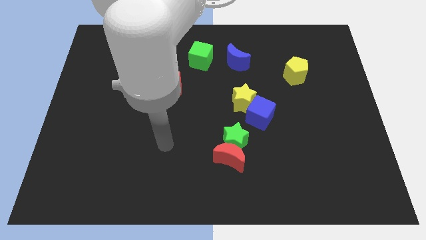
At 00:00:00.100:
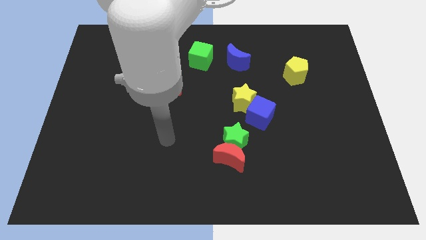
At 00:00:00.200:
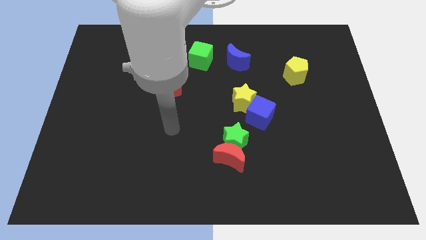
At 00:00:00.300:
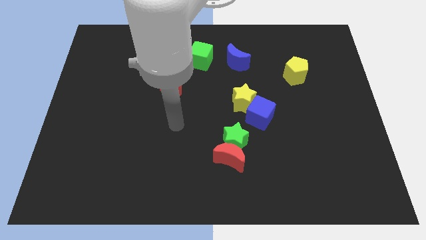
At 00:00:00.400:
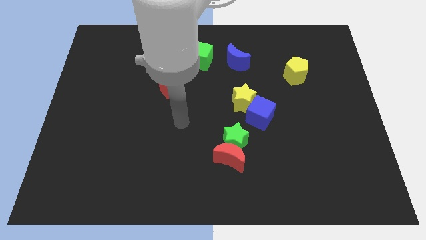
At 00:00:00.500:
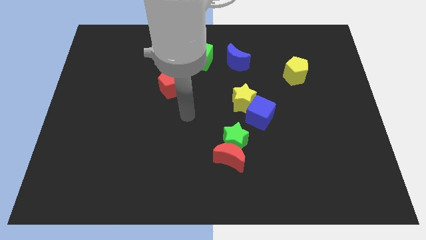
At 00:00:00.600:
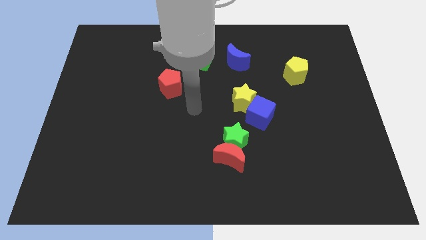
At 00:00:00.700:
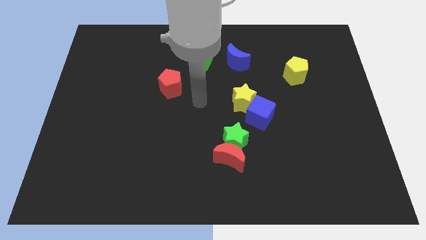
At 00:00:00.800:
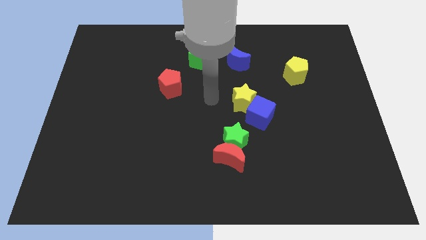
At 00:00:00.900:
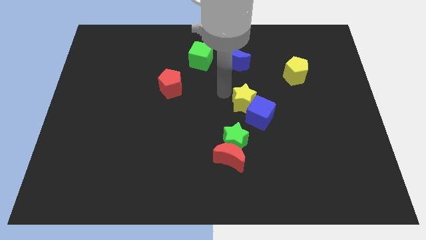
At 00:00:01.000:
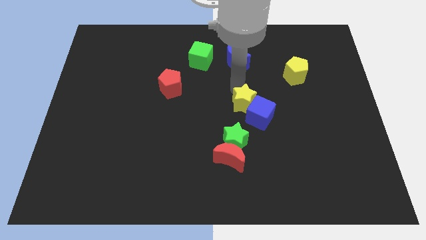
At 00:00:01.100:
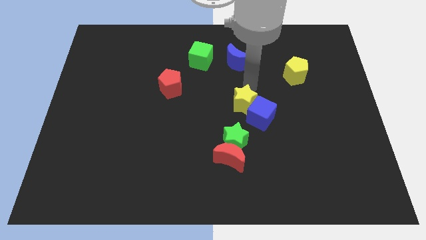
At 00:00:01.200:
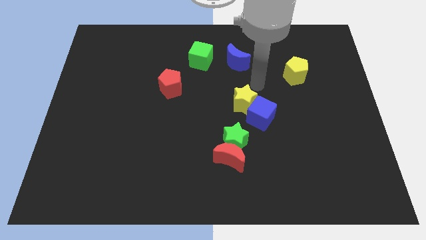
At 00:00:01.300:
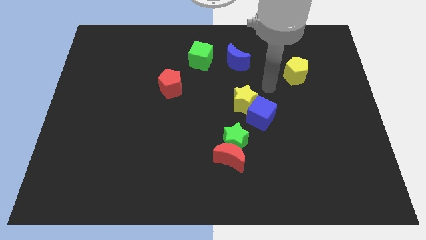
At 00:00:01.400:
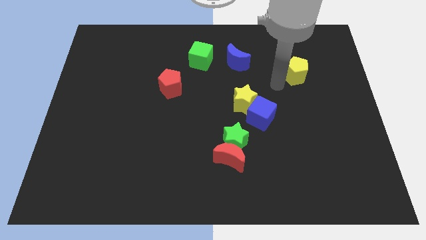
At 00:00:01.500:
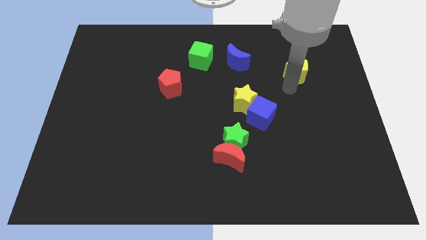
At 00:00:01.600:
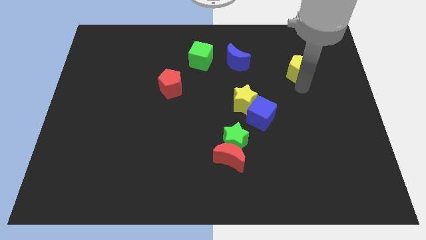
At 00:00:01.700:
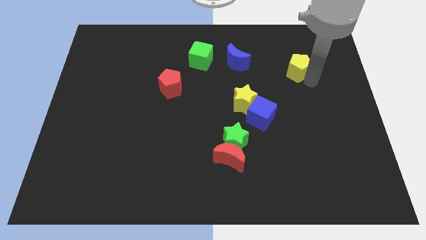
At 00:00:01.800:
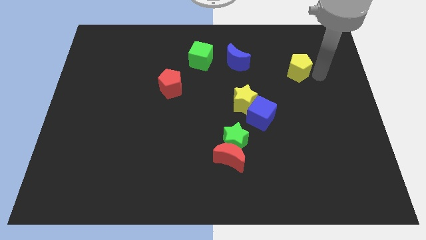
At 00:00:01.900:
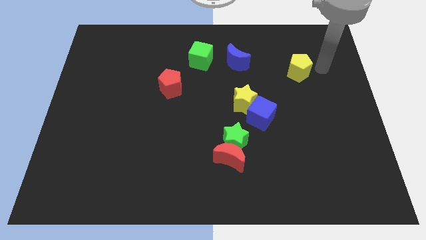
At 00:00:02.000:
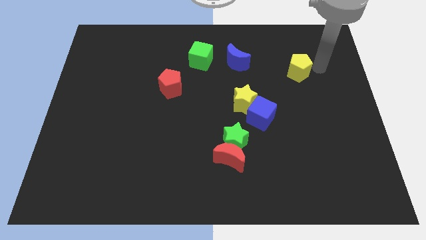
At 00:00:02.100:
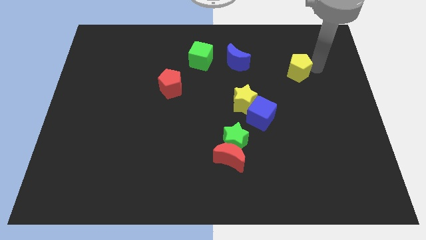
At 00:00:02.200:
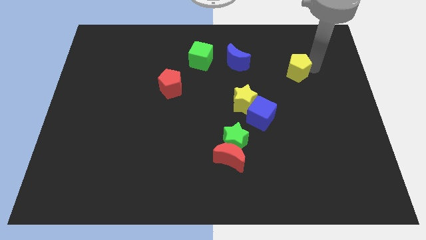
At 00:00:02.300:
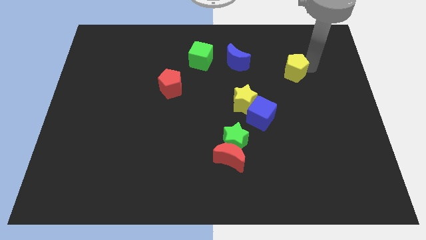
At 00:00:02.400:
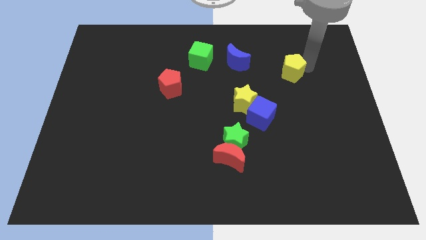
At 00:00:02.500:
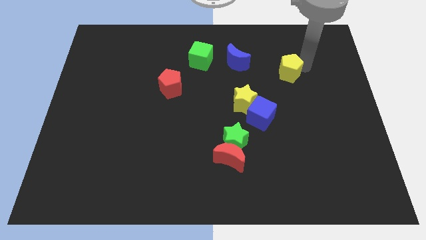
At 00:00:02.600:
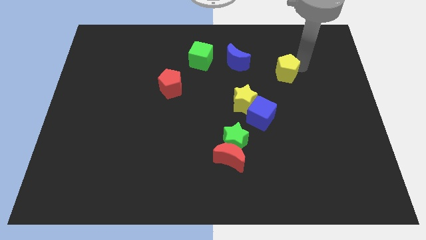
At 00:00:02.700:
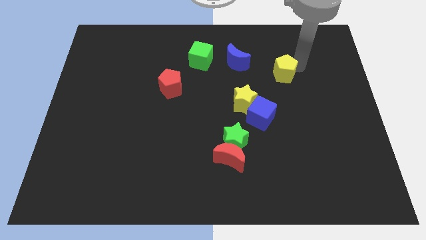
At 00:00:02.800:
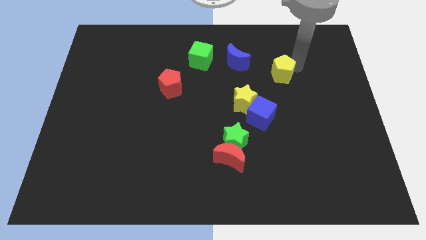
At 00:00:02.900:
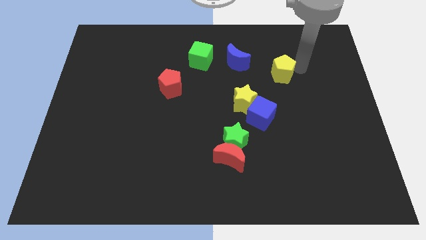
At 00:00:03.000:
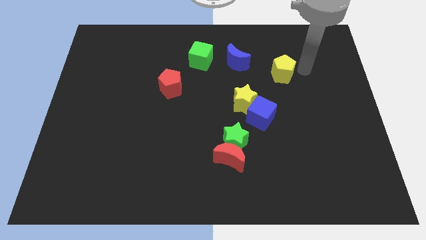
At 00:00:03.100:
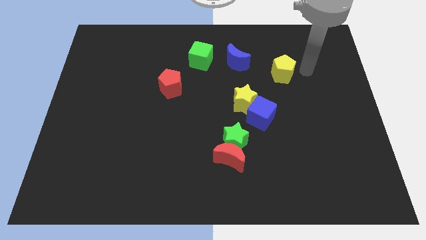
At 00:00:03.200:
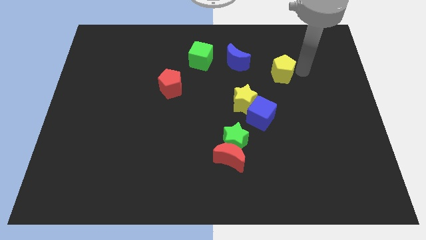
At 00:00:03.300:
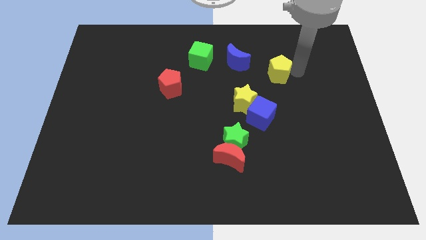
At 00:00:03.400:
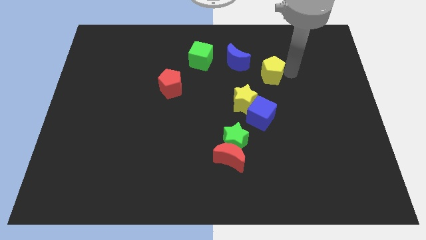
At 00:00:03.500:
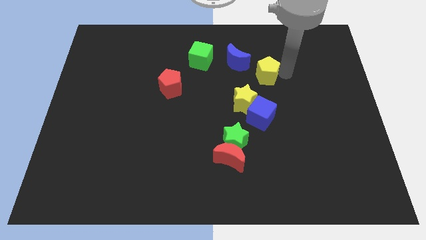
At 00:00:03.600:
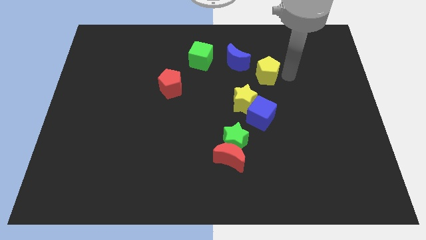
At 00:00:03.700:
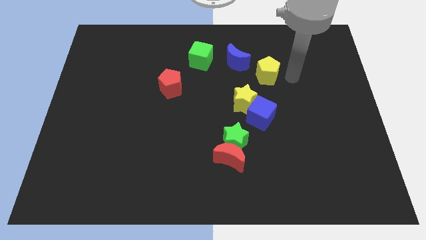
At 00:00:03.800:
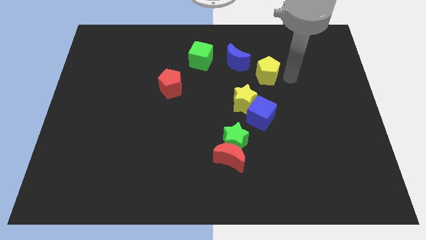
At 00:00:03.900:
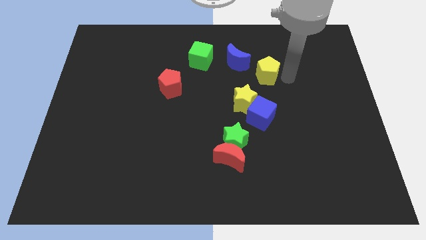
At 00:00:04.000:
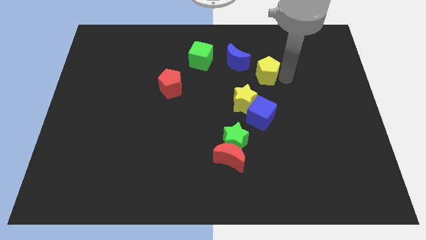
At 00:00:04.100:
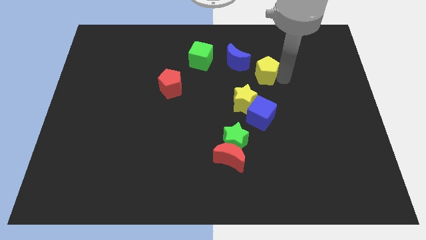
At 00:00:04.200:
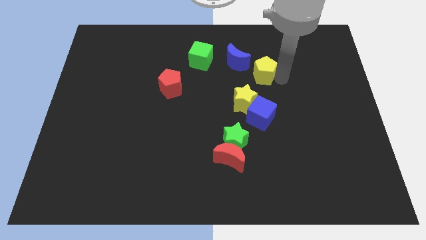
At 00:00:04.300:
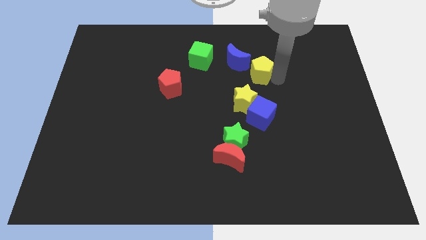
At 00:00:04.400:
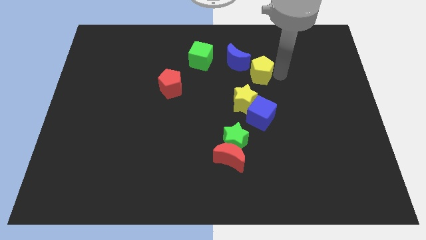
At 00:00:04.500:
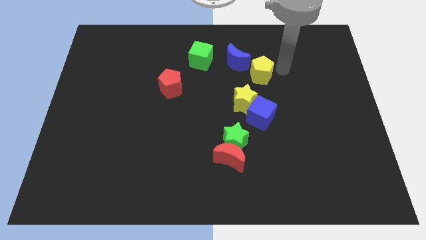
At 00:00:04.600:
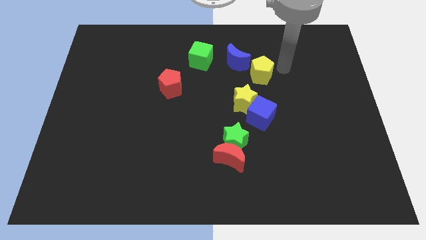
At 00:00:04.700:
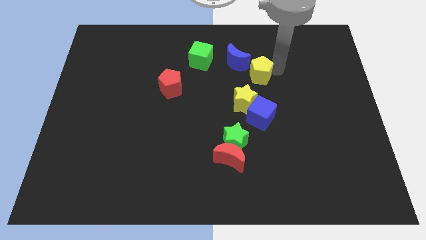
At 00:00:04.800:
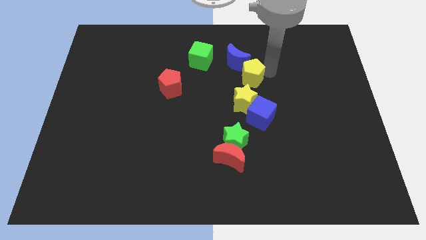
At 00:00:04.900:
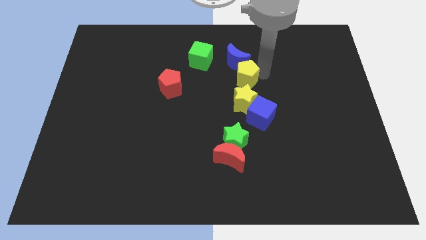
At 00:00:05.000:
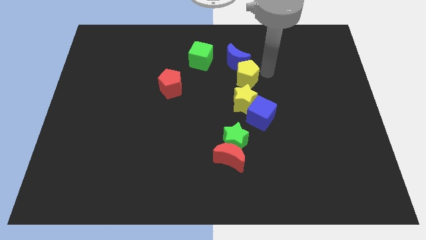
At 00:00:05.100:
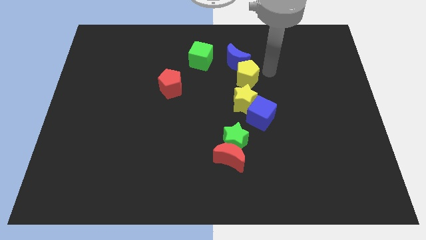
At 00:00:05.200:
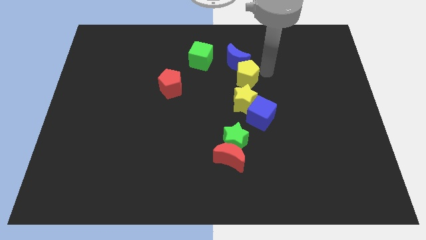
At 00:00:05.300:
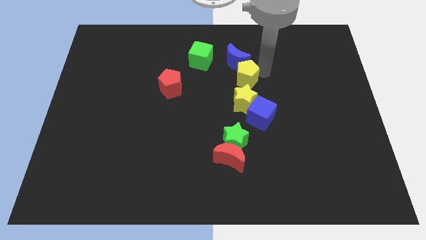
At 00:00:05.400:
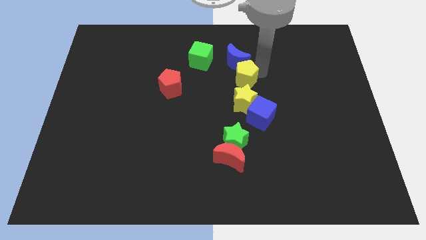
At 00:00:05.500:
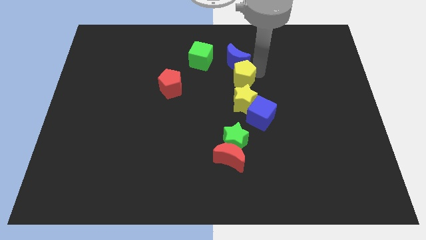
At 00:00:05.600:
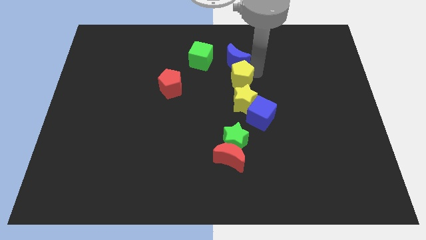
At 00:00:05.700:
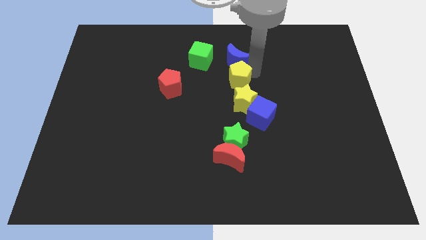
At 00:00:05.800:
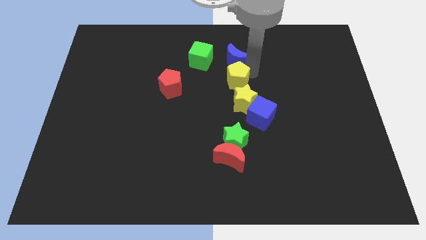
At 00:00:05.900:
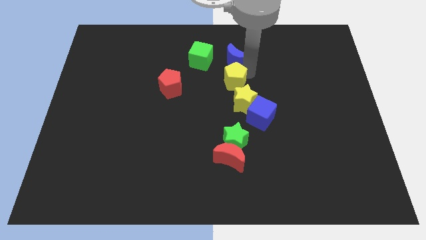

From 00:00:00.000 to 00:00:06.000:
push the yellow pentagon to the right of the red pentagon

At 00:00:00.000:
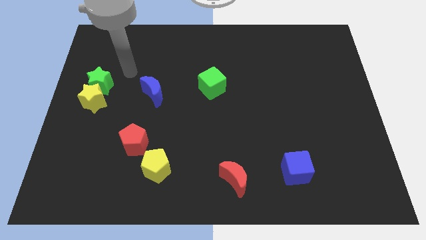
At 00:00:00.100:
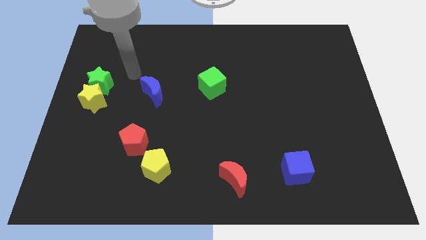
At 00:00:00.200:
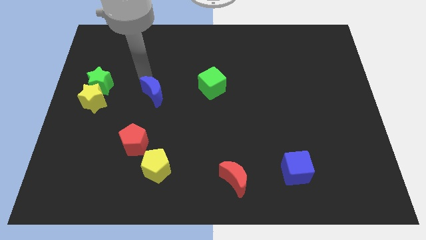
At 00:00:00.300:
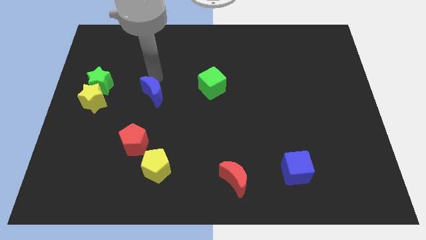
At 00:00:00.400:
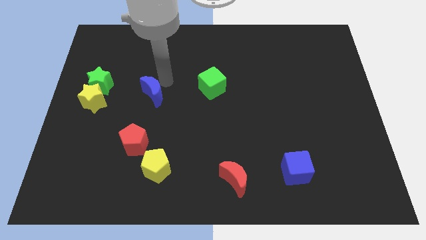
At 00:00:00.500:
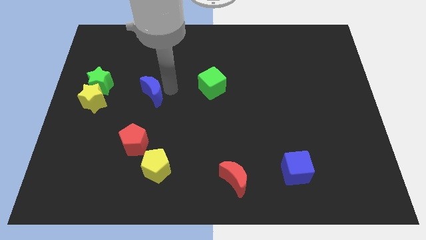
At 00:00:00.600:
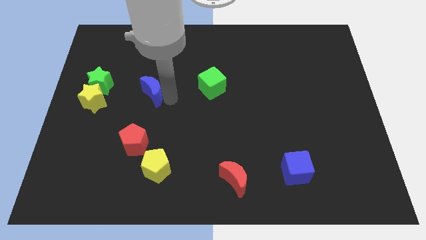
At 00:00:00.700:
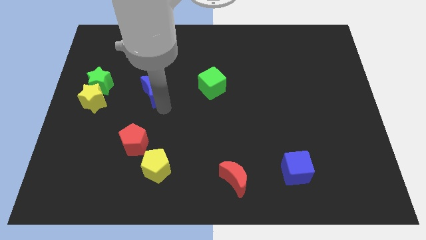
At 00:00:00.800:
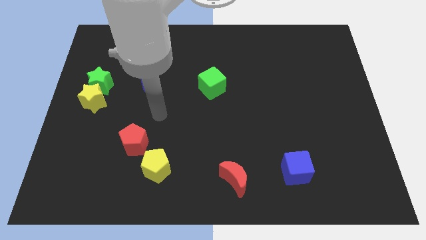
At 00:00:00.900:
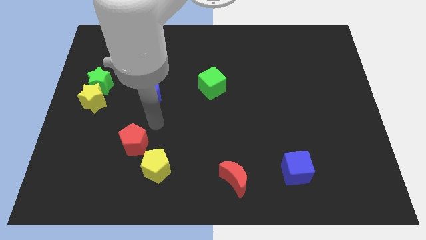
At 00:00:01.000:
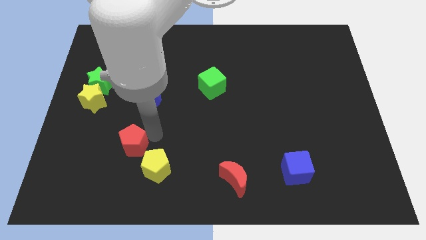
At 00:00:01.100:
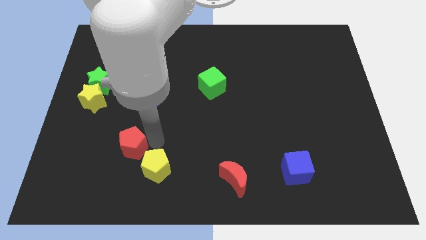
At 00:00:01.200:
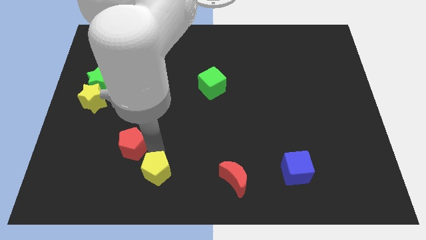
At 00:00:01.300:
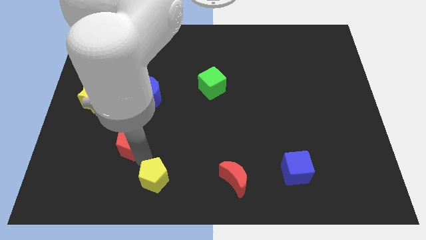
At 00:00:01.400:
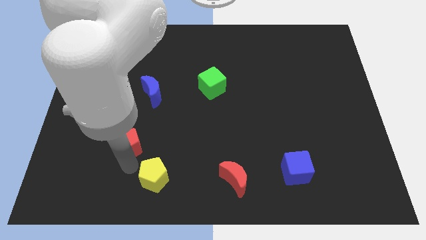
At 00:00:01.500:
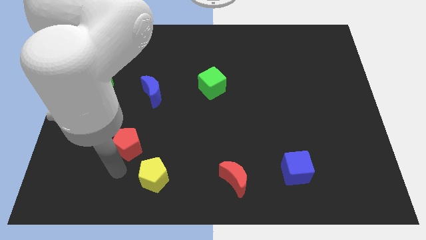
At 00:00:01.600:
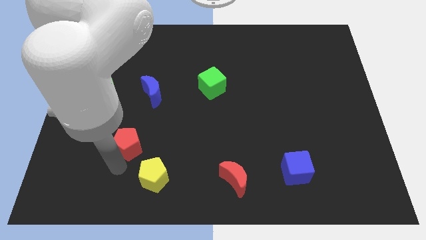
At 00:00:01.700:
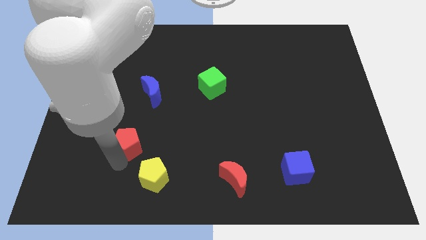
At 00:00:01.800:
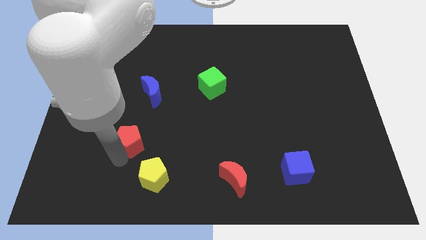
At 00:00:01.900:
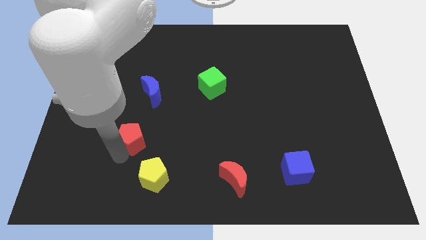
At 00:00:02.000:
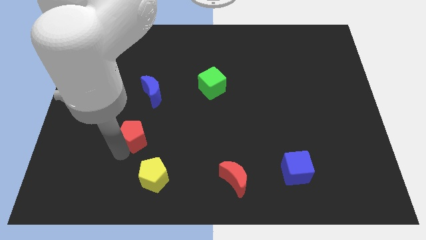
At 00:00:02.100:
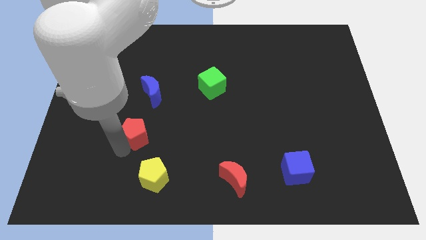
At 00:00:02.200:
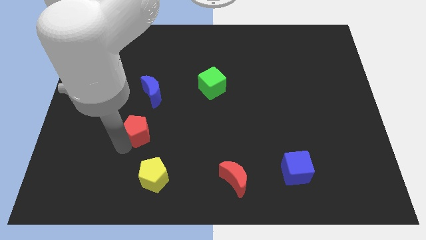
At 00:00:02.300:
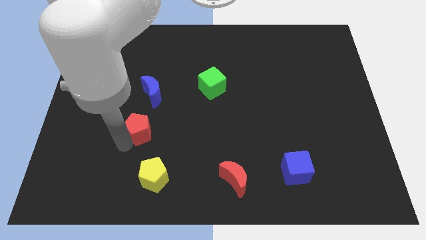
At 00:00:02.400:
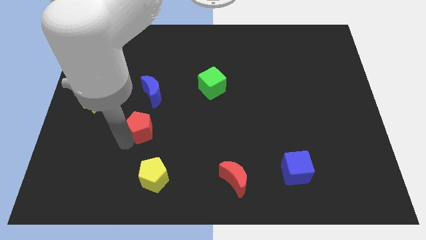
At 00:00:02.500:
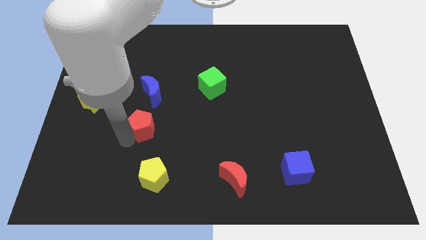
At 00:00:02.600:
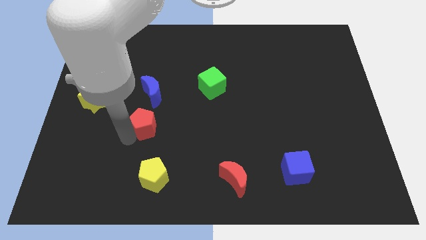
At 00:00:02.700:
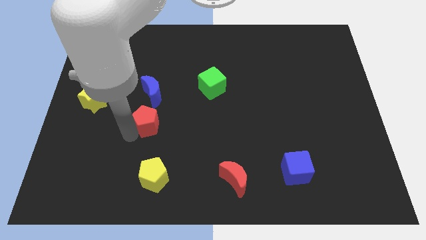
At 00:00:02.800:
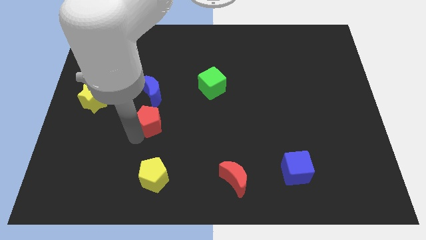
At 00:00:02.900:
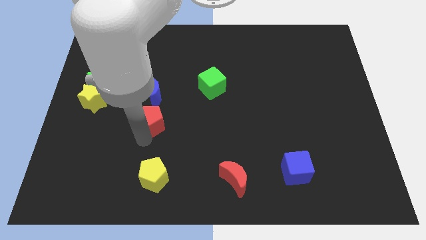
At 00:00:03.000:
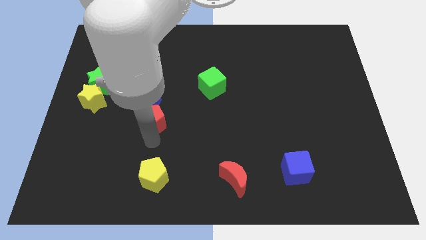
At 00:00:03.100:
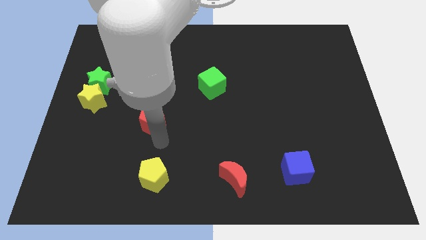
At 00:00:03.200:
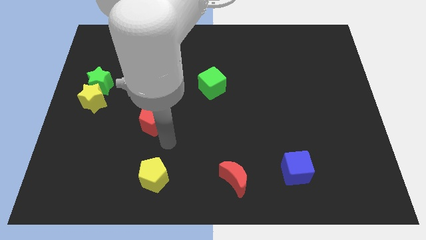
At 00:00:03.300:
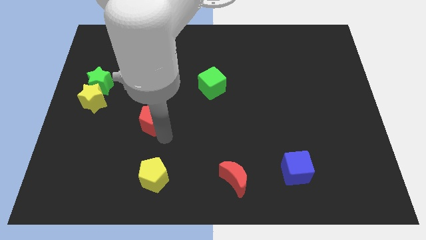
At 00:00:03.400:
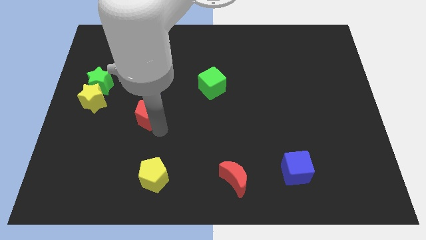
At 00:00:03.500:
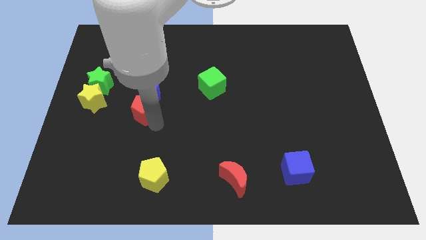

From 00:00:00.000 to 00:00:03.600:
move the red pentagon just right of the yellow star
